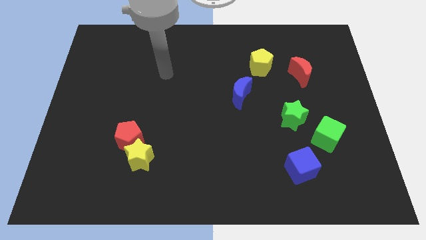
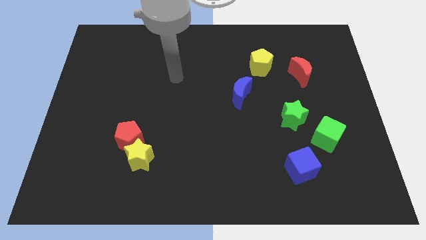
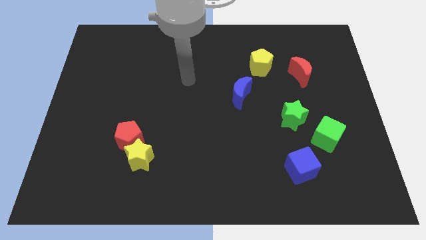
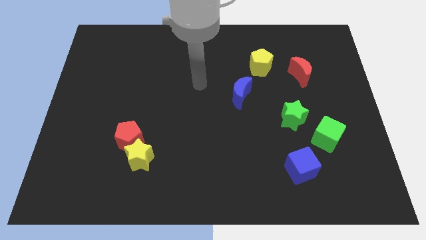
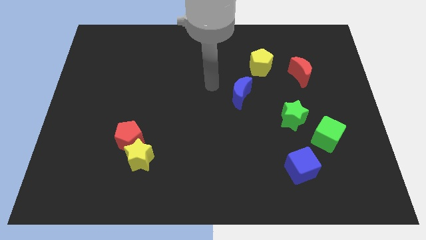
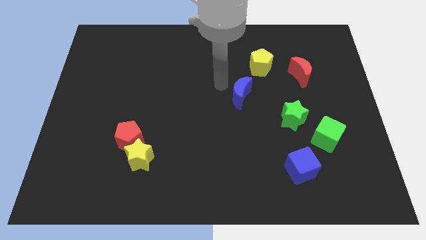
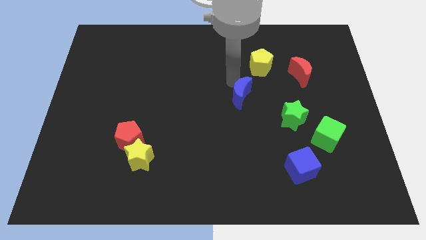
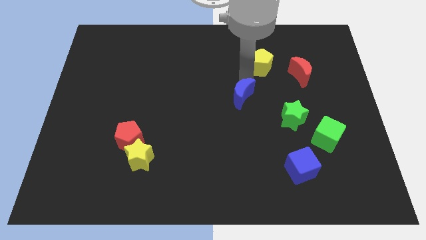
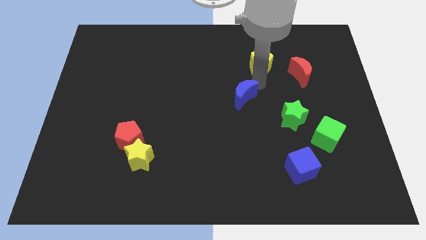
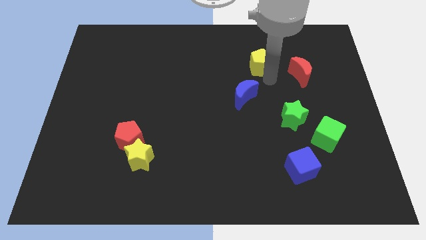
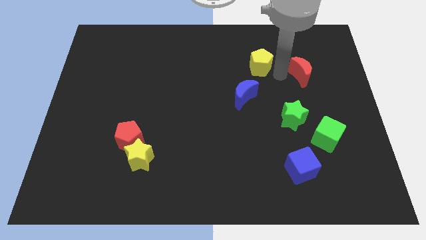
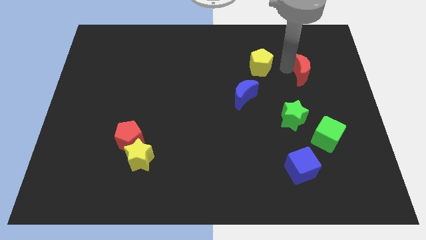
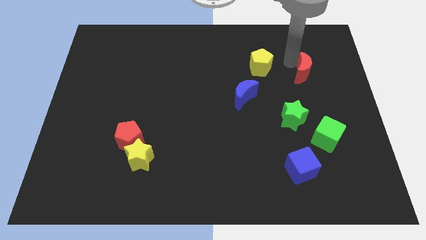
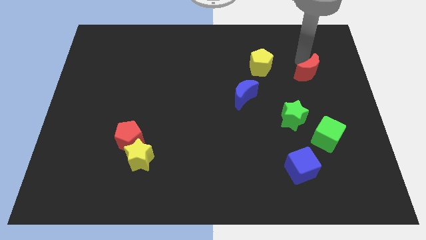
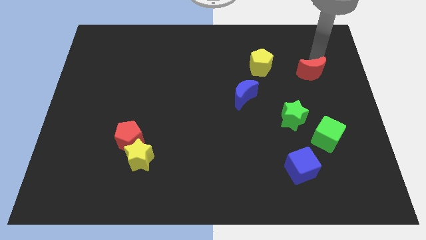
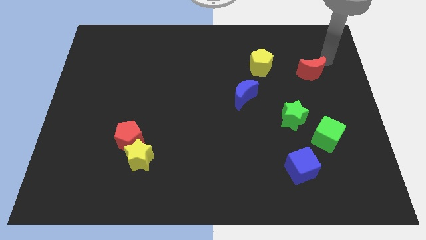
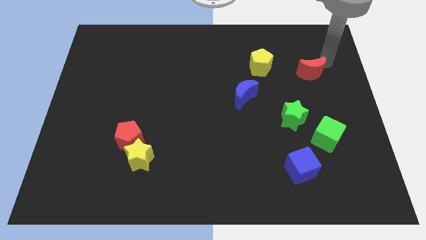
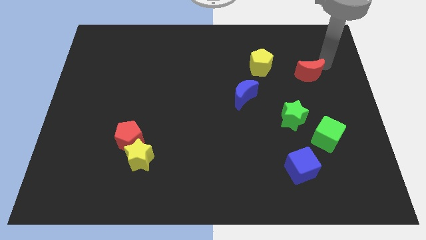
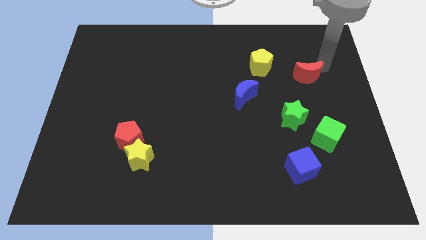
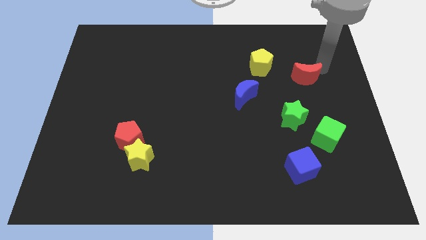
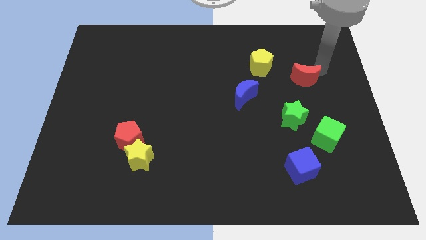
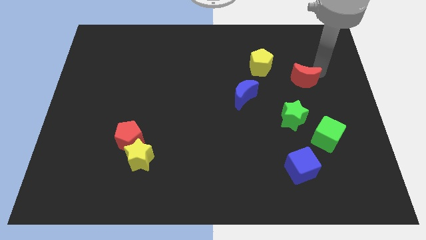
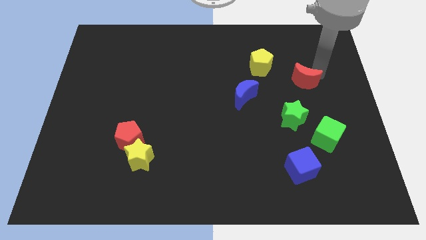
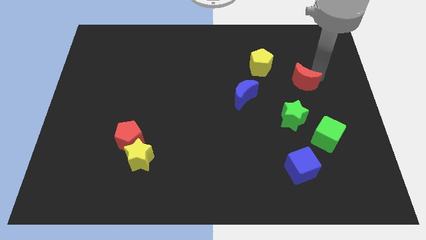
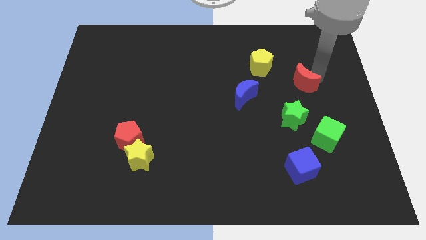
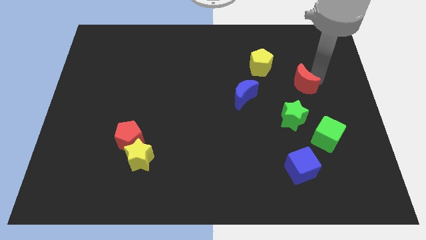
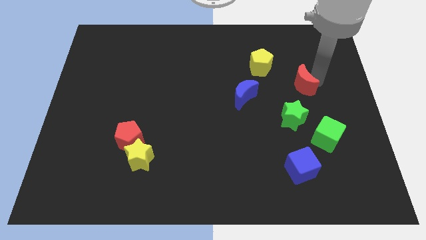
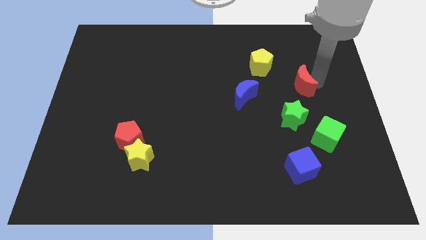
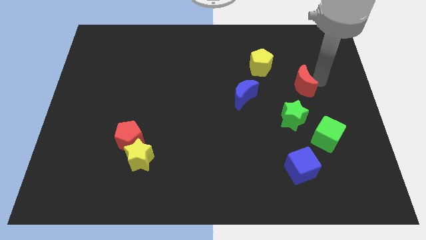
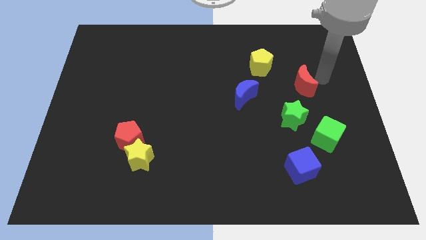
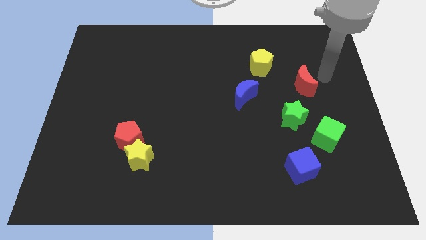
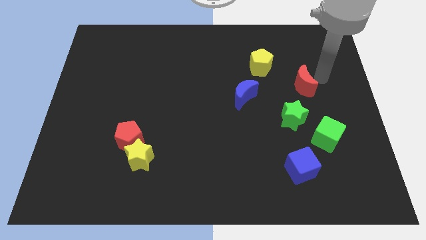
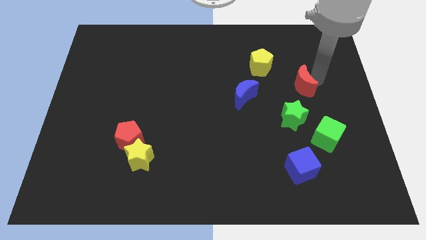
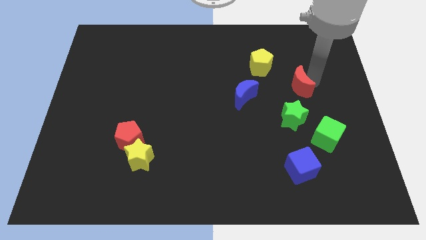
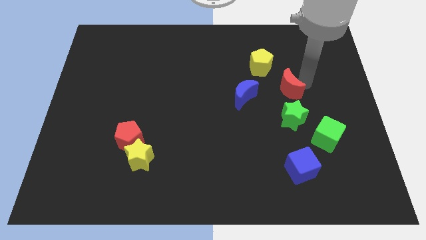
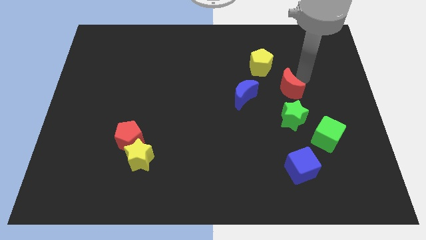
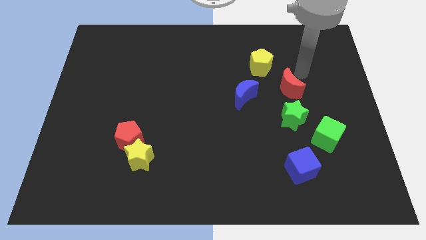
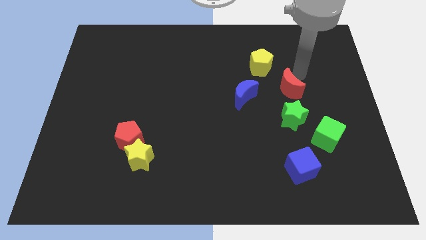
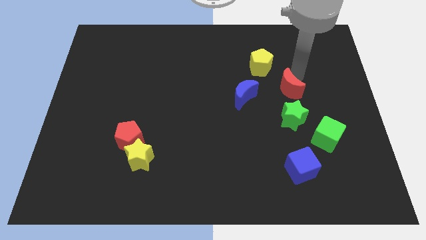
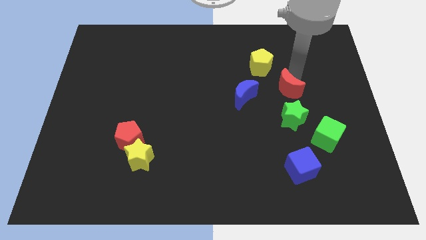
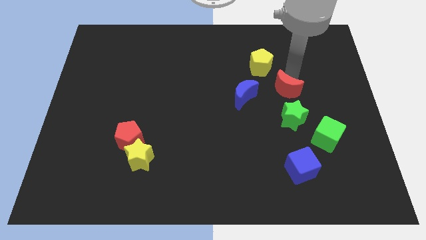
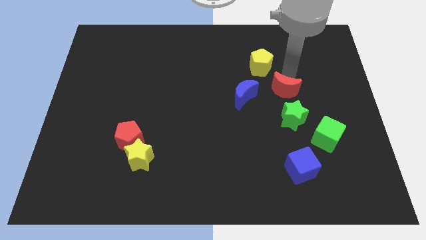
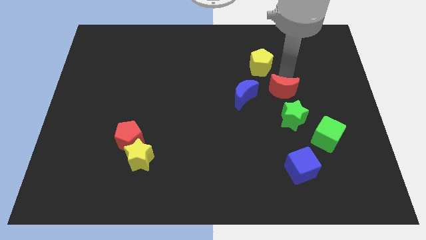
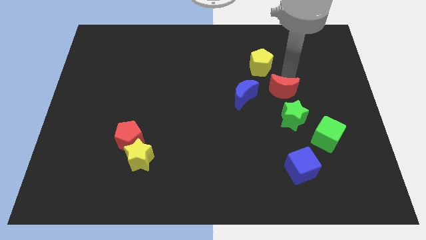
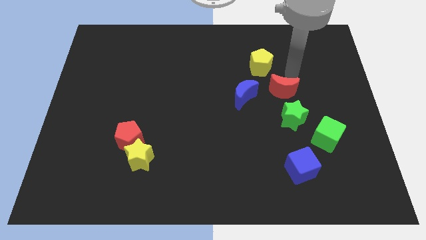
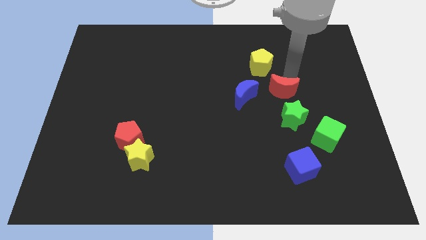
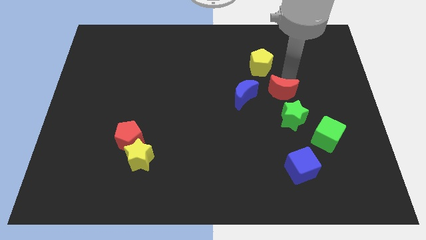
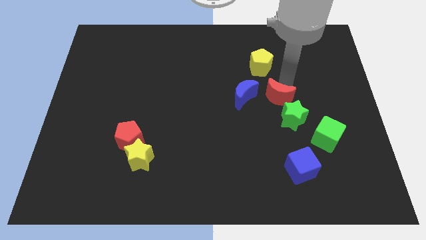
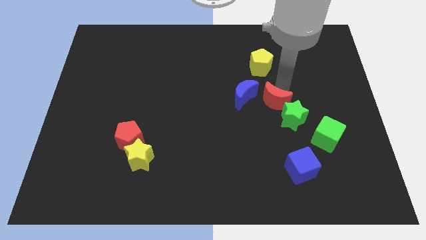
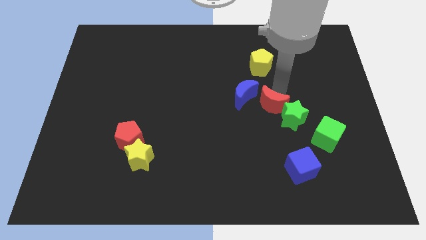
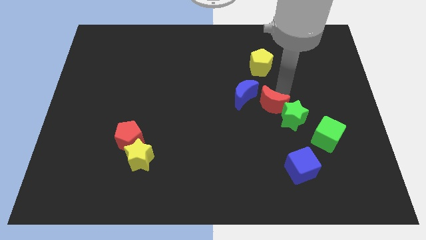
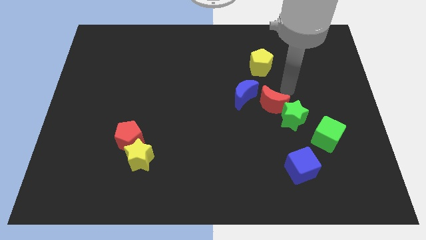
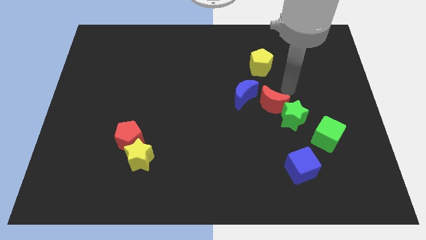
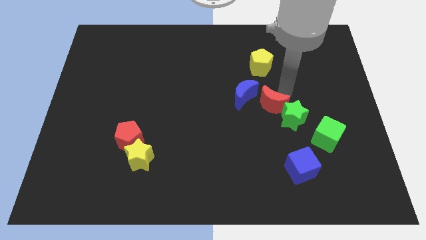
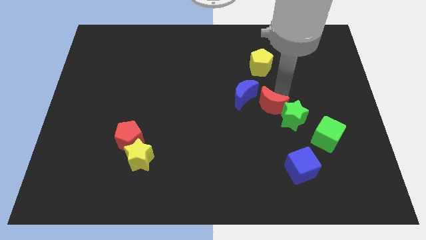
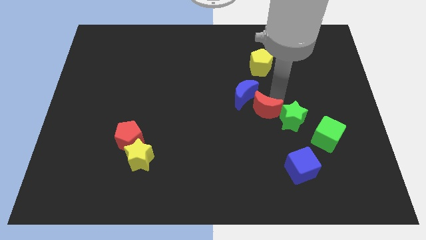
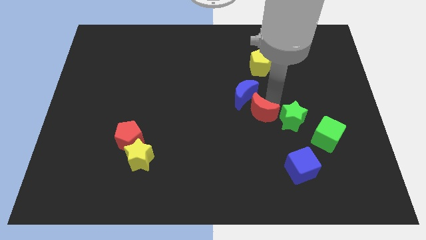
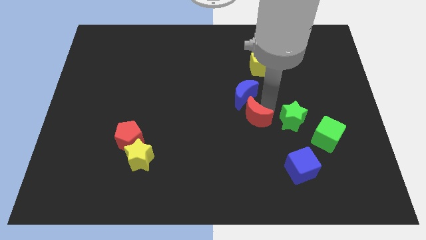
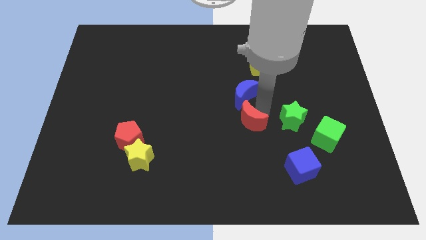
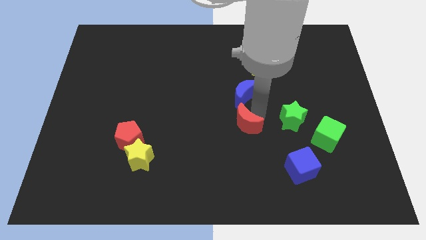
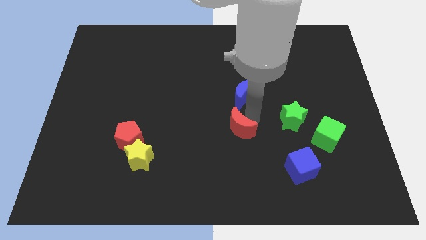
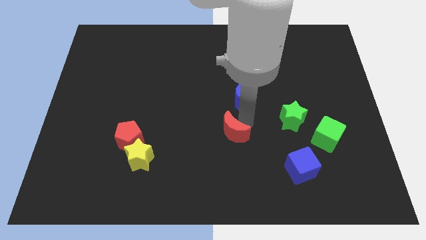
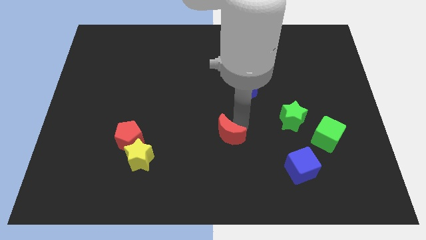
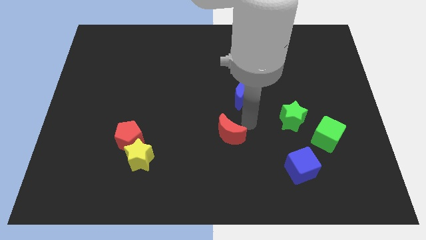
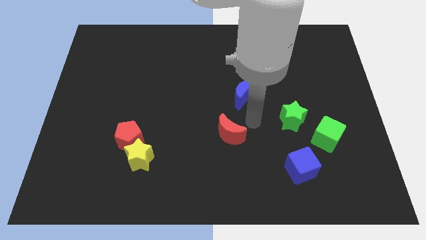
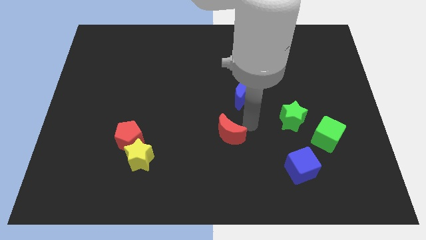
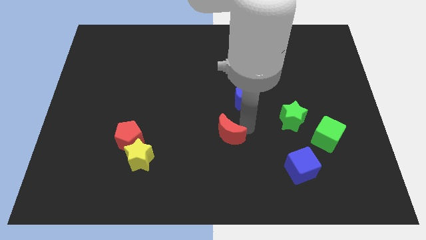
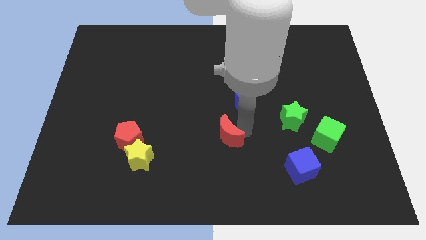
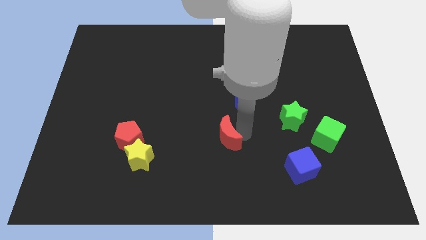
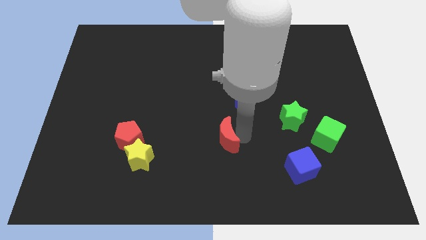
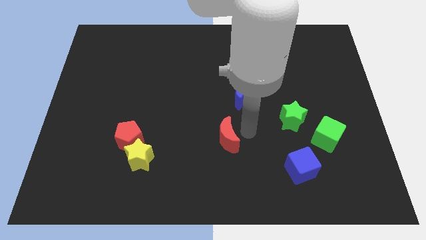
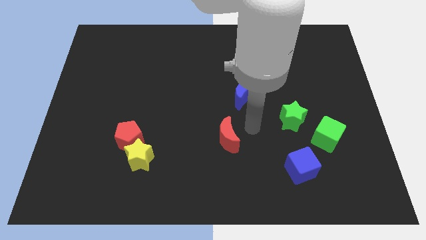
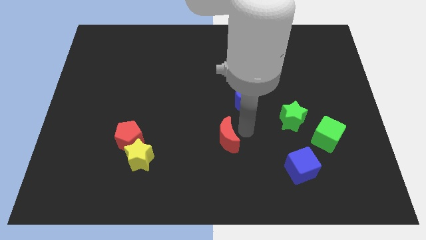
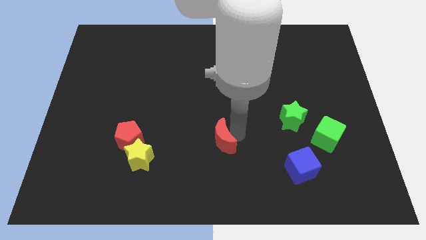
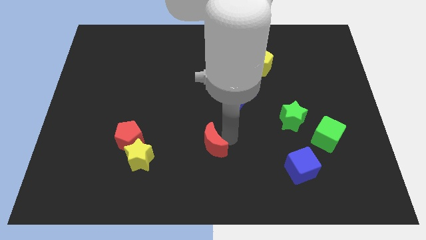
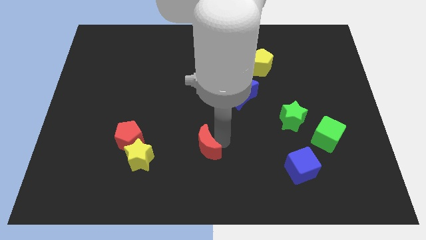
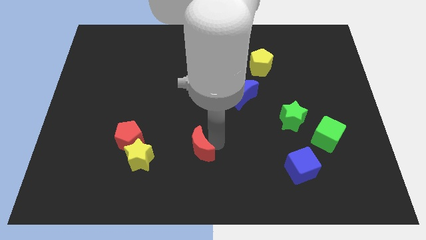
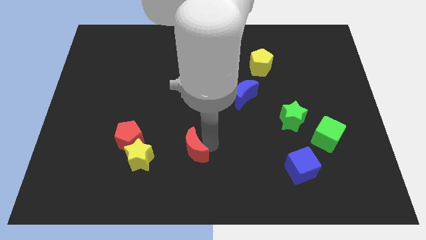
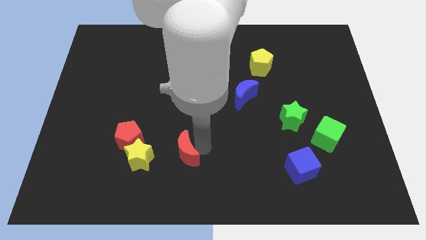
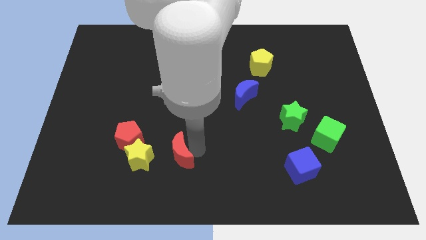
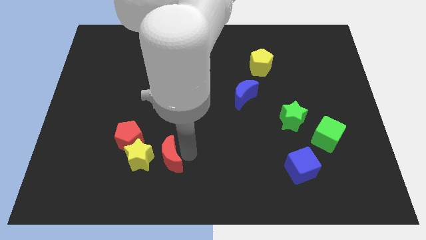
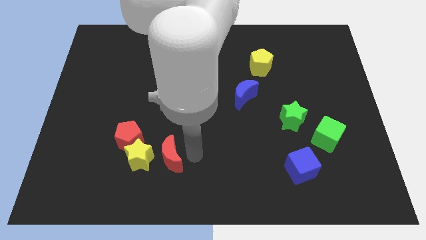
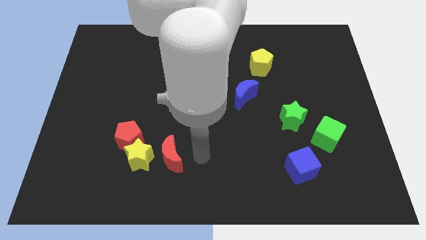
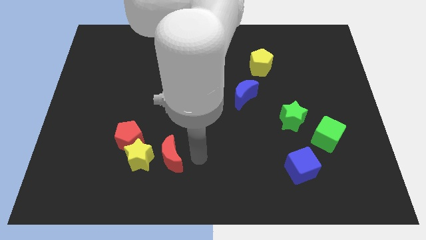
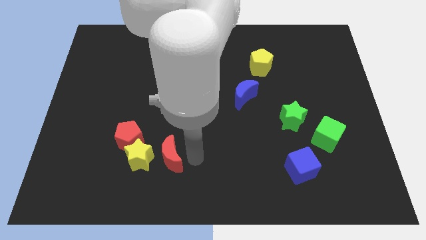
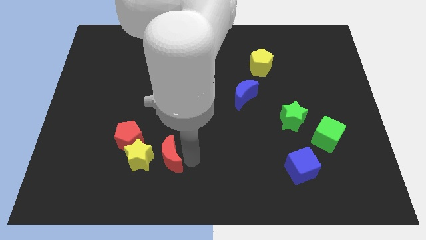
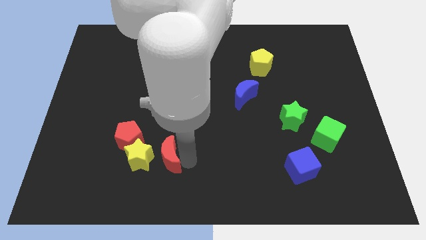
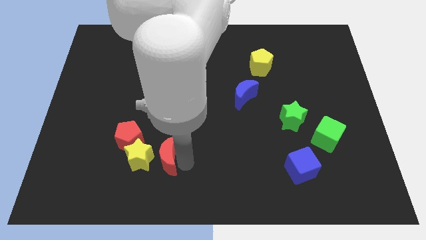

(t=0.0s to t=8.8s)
move the red moon towards the yellow star
